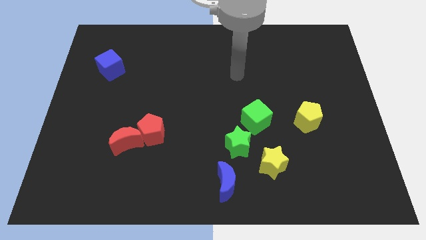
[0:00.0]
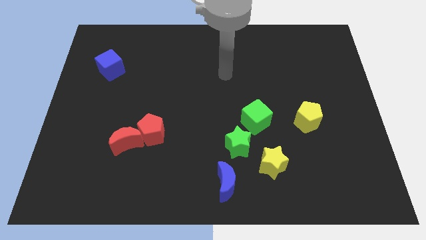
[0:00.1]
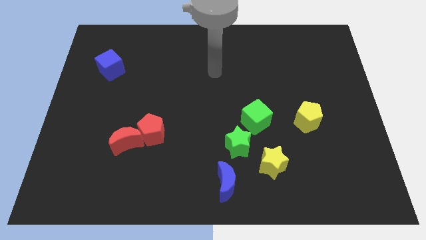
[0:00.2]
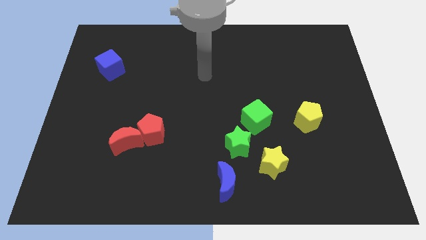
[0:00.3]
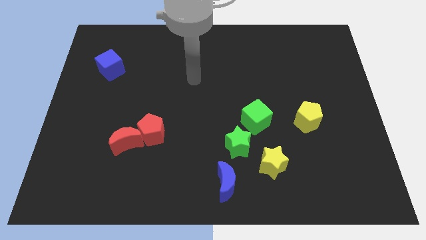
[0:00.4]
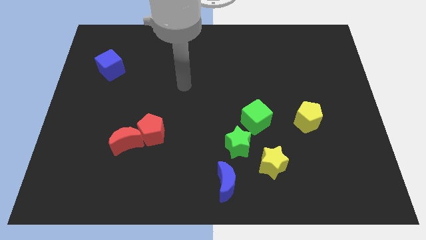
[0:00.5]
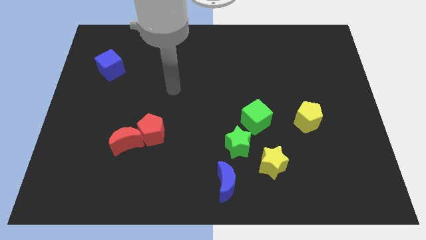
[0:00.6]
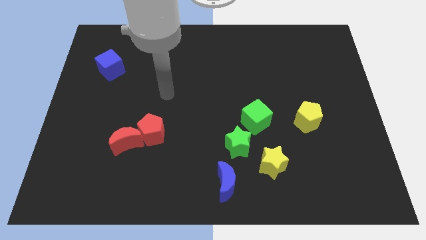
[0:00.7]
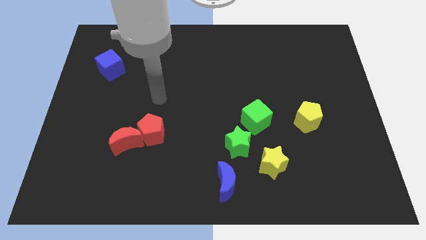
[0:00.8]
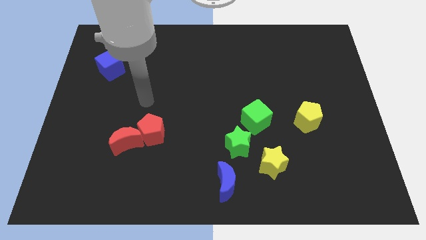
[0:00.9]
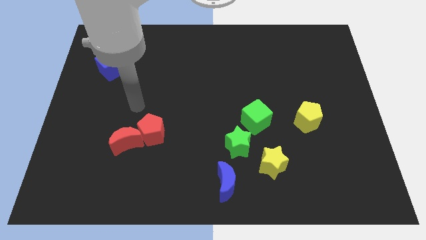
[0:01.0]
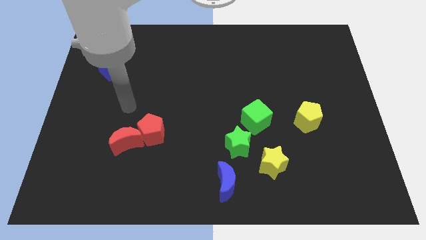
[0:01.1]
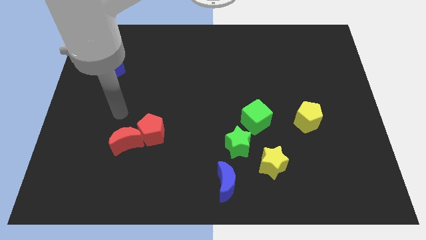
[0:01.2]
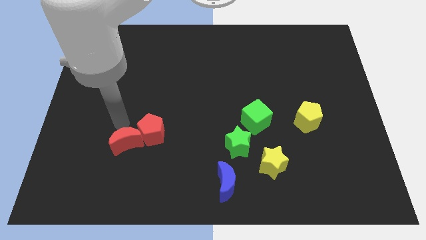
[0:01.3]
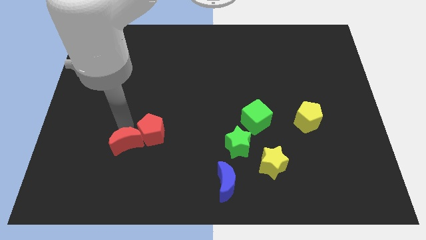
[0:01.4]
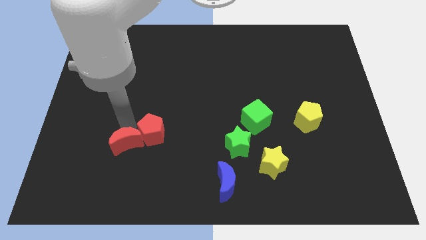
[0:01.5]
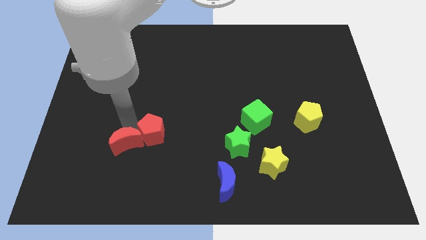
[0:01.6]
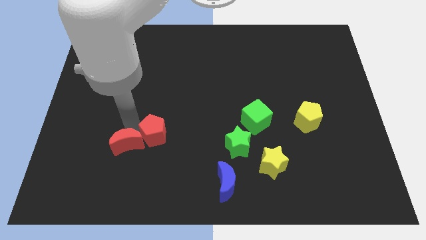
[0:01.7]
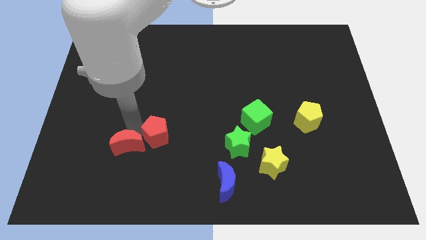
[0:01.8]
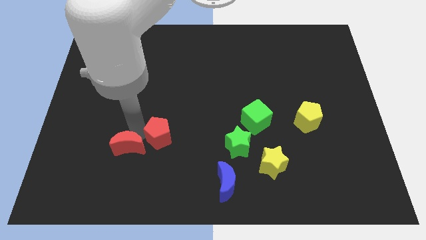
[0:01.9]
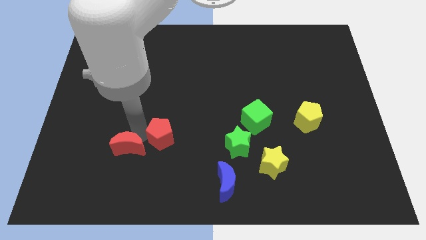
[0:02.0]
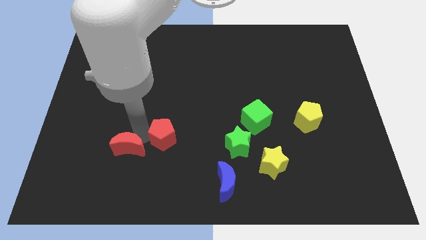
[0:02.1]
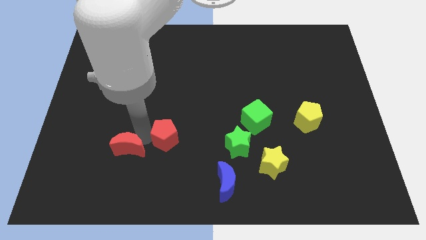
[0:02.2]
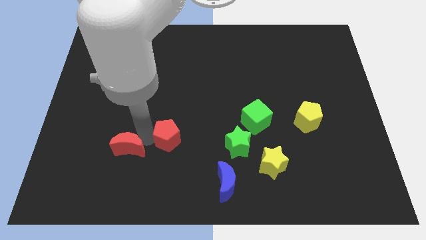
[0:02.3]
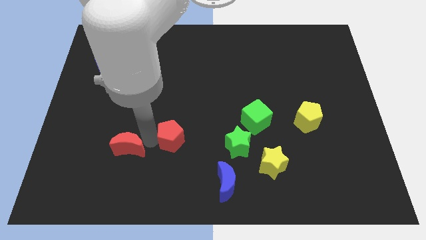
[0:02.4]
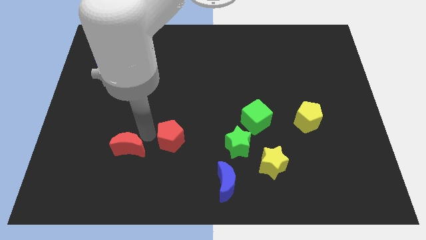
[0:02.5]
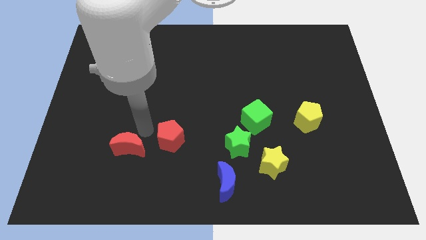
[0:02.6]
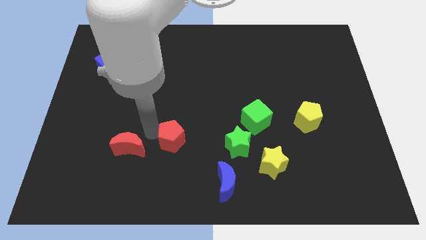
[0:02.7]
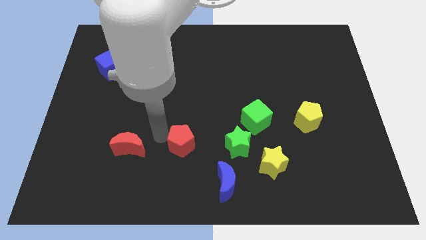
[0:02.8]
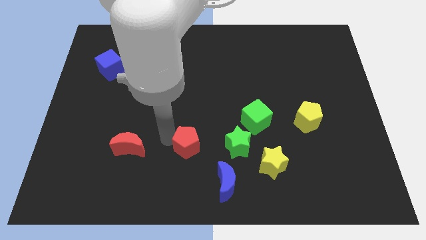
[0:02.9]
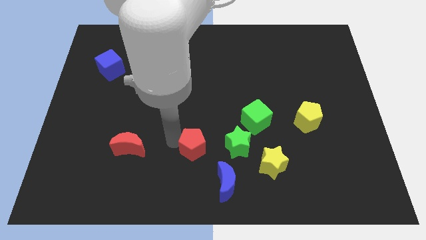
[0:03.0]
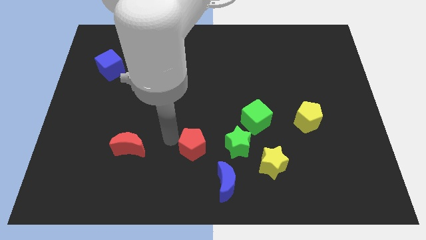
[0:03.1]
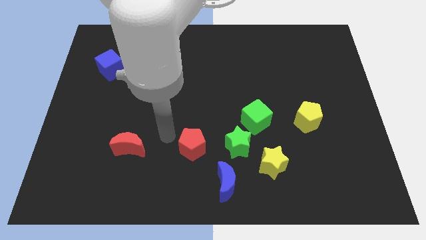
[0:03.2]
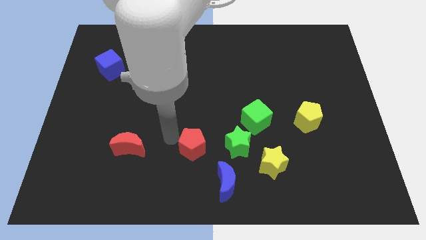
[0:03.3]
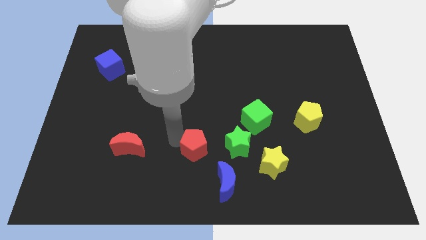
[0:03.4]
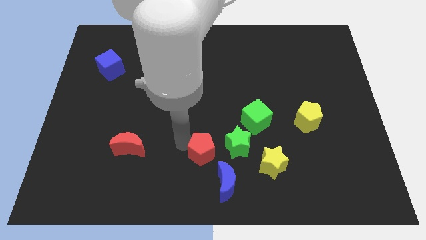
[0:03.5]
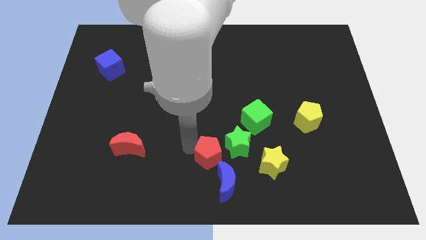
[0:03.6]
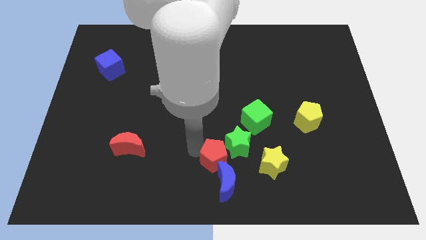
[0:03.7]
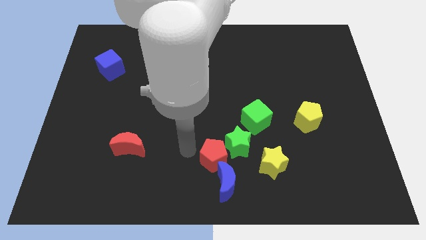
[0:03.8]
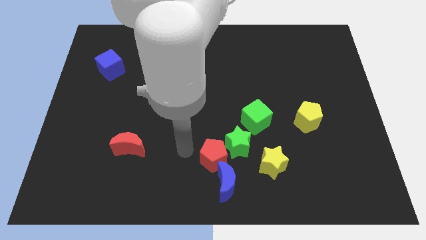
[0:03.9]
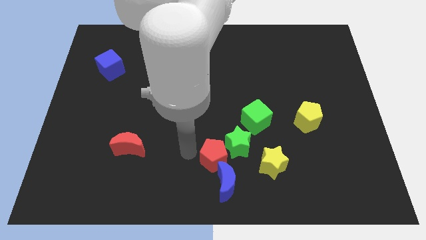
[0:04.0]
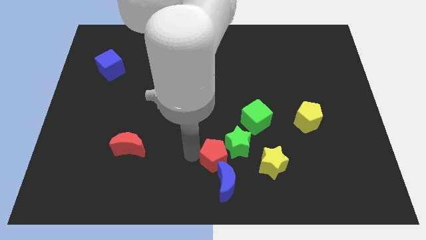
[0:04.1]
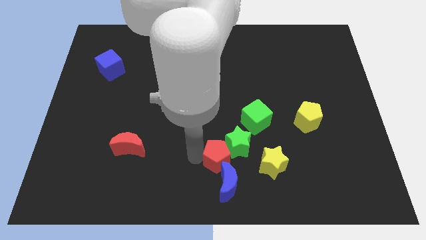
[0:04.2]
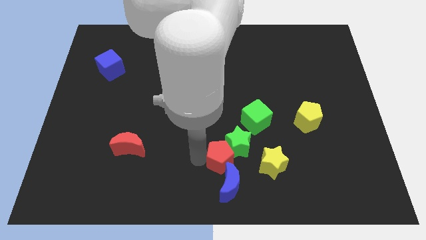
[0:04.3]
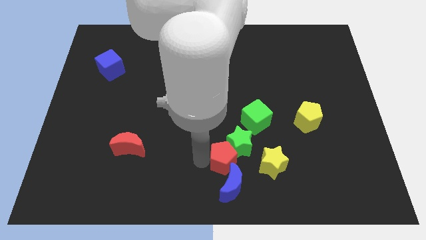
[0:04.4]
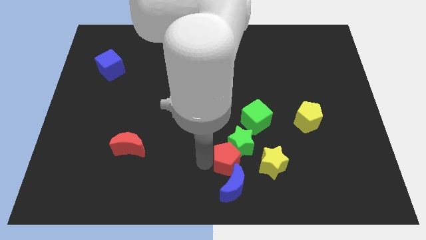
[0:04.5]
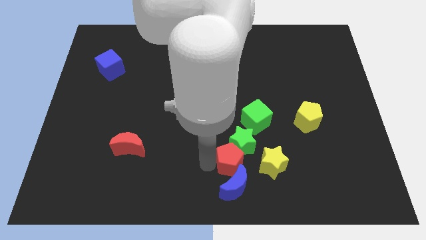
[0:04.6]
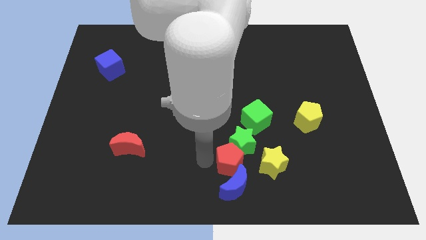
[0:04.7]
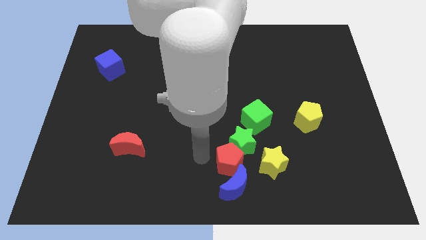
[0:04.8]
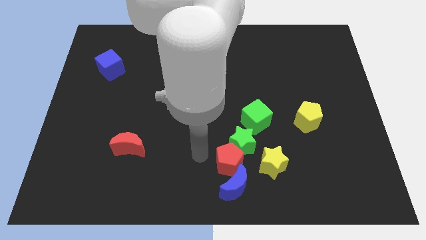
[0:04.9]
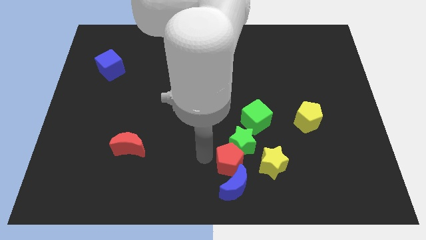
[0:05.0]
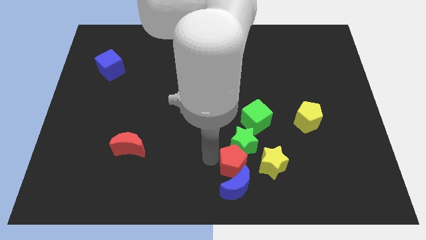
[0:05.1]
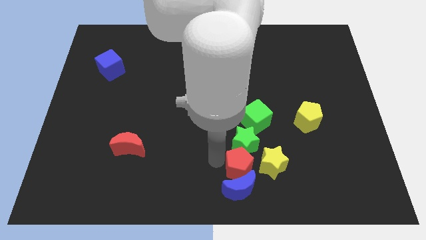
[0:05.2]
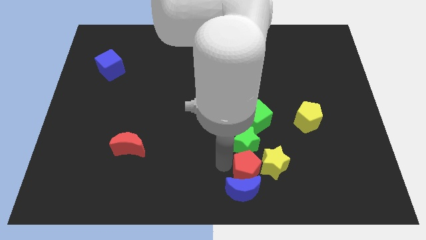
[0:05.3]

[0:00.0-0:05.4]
move the red pentagon next to the yellow star

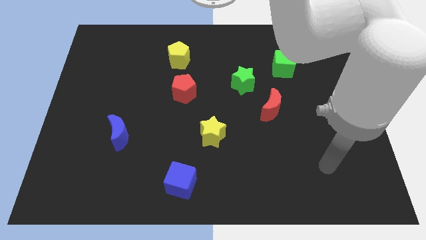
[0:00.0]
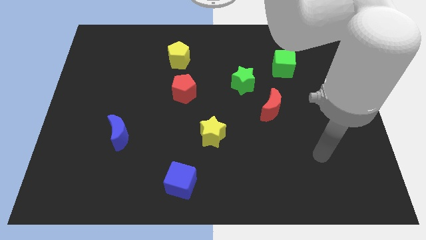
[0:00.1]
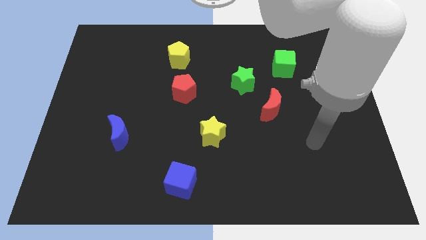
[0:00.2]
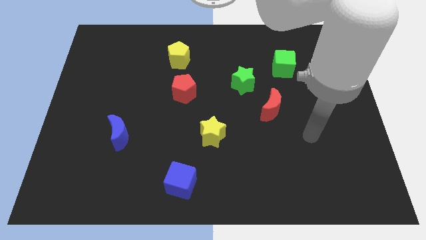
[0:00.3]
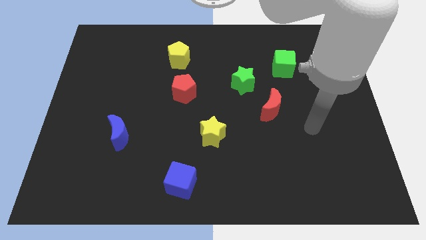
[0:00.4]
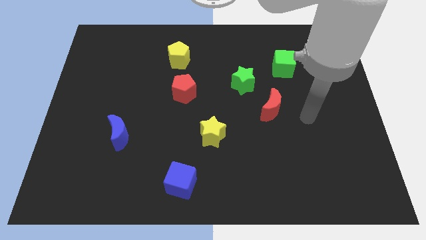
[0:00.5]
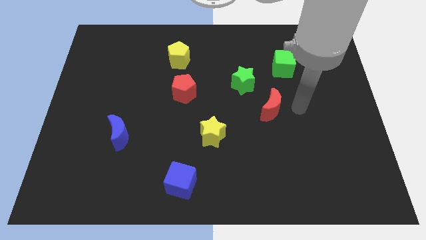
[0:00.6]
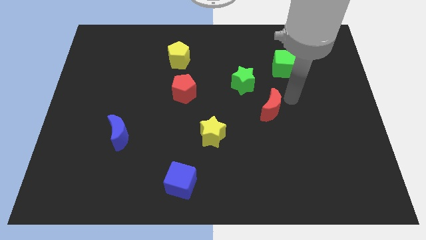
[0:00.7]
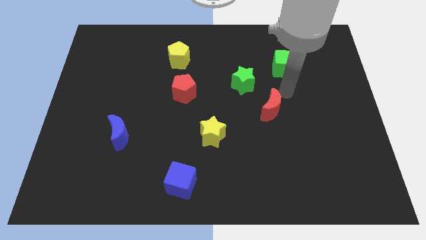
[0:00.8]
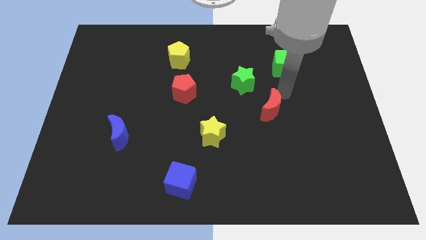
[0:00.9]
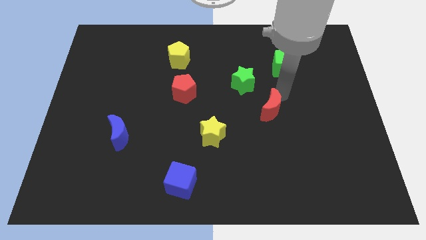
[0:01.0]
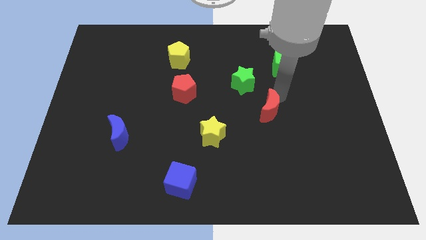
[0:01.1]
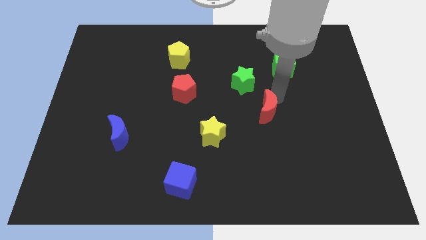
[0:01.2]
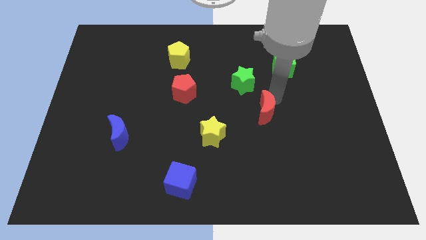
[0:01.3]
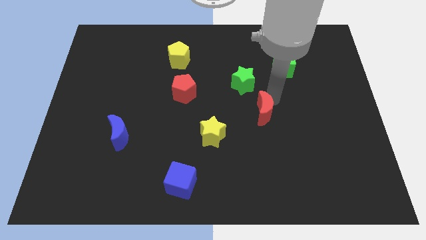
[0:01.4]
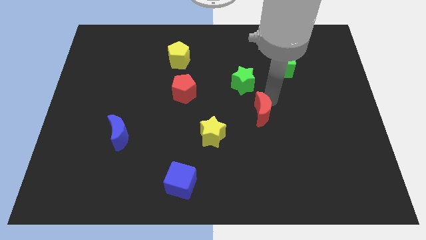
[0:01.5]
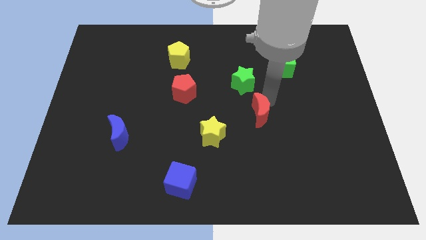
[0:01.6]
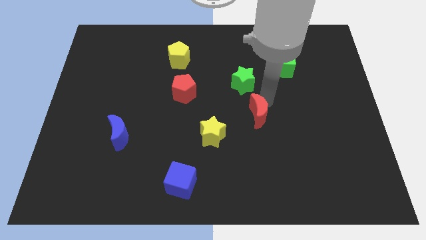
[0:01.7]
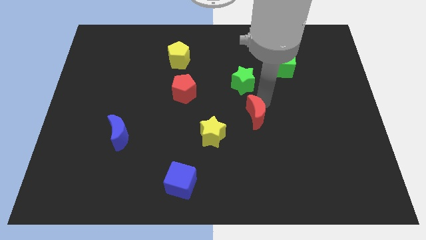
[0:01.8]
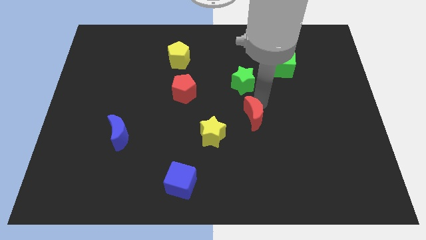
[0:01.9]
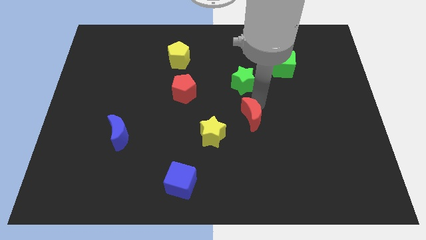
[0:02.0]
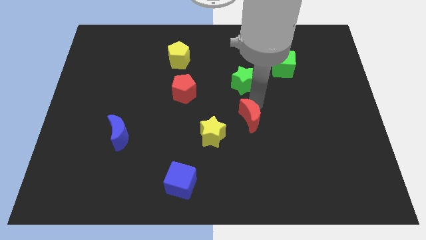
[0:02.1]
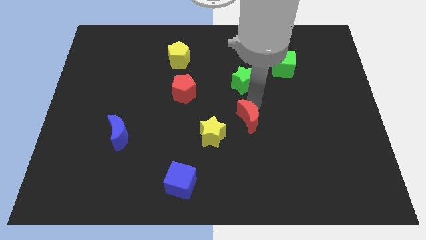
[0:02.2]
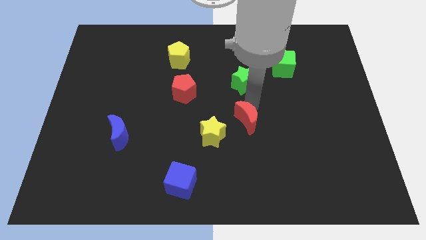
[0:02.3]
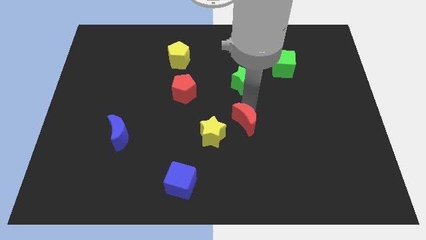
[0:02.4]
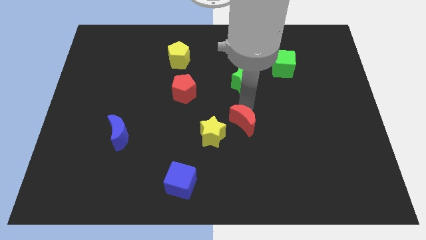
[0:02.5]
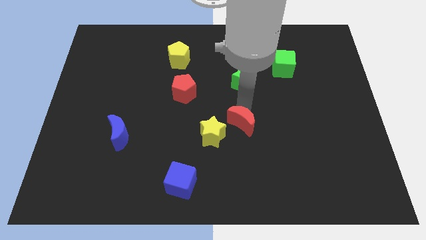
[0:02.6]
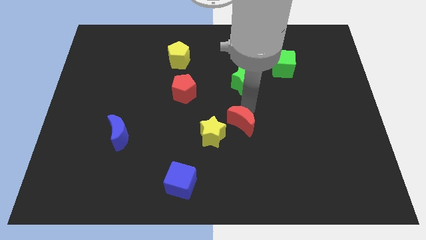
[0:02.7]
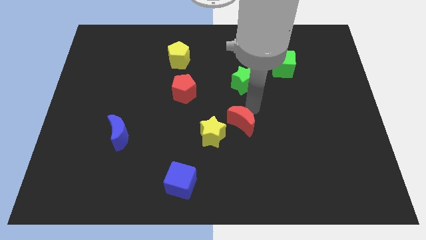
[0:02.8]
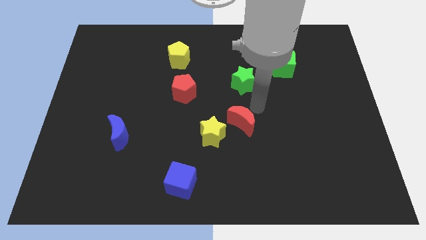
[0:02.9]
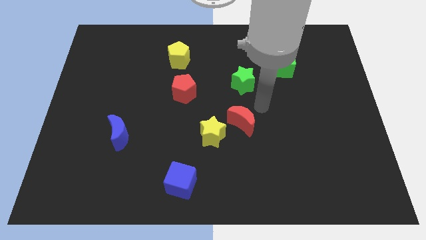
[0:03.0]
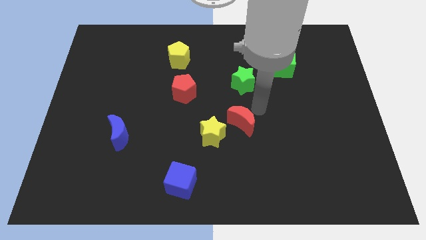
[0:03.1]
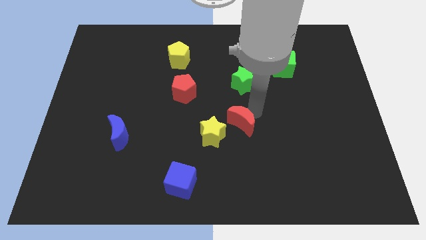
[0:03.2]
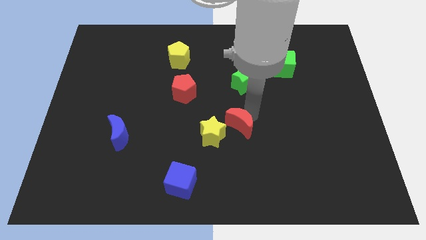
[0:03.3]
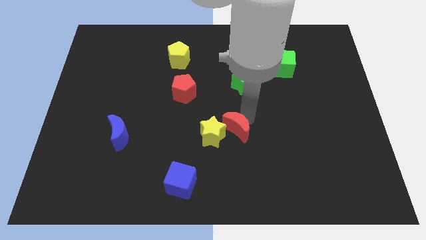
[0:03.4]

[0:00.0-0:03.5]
push the red moon to the yellow star
